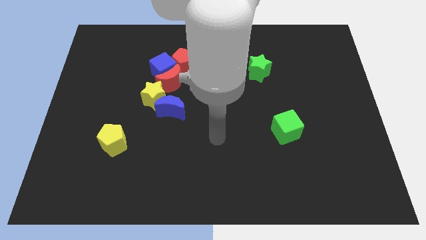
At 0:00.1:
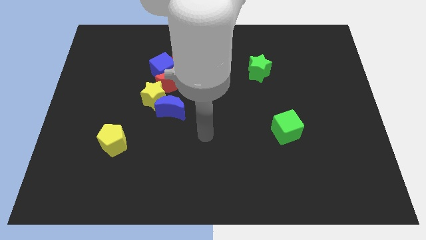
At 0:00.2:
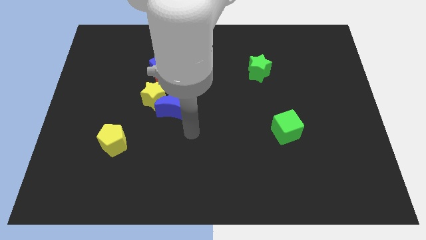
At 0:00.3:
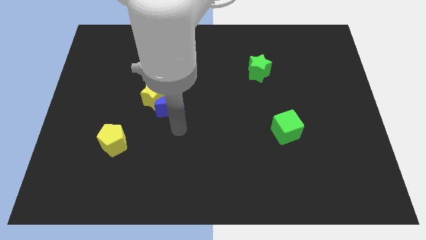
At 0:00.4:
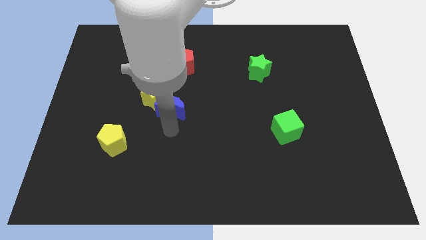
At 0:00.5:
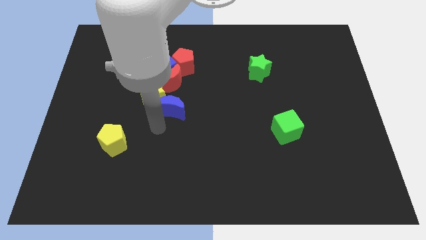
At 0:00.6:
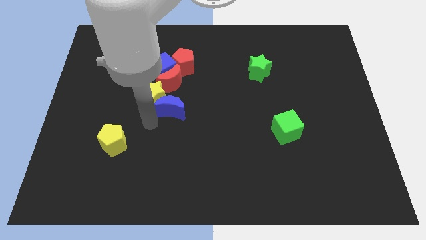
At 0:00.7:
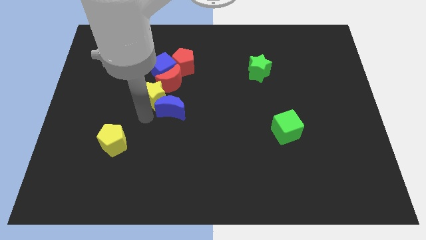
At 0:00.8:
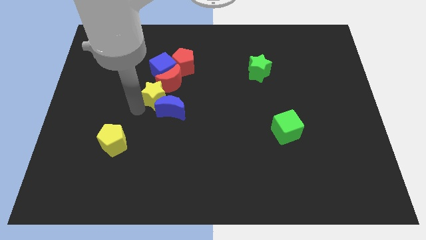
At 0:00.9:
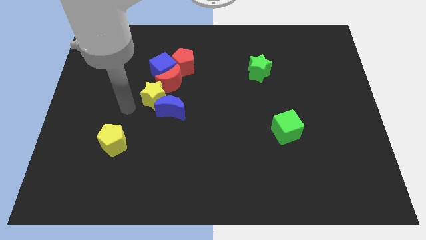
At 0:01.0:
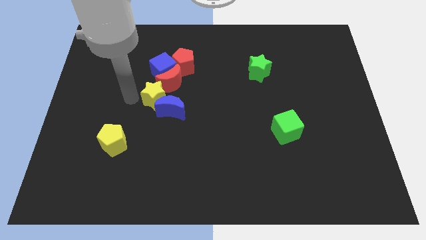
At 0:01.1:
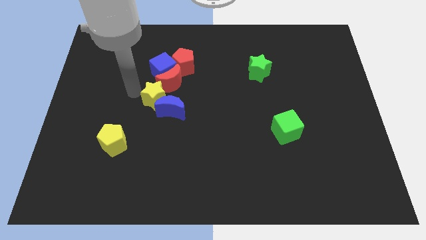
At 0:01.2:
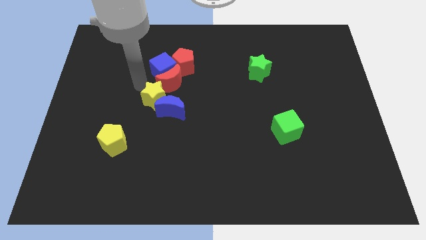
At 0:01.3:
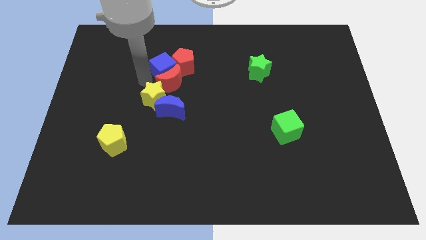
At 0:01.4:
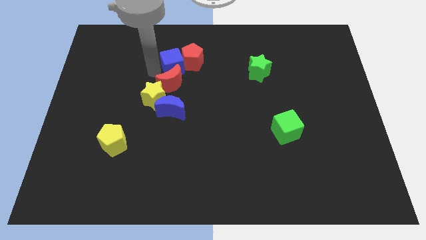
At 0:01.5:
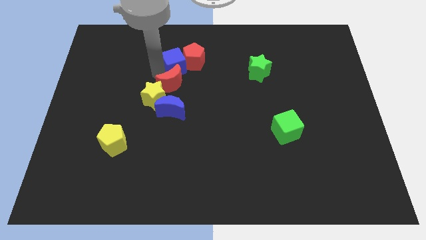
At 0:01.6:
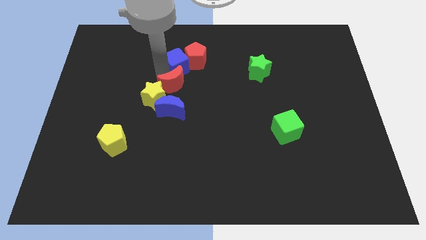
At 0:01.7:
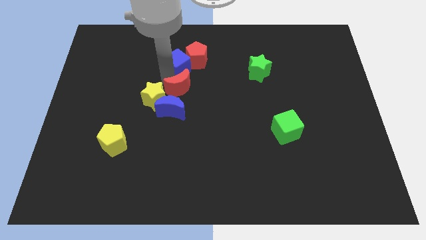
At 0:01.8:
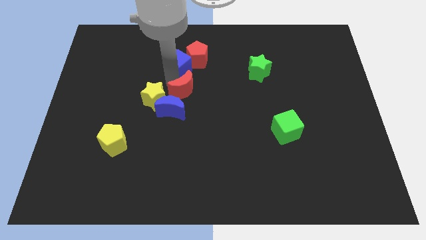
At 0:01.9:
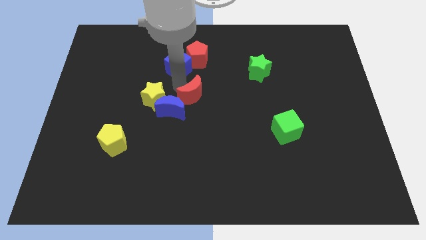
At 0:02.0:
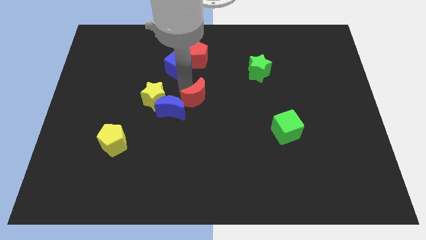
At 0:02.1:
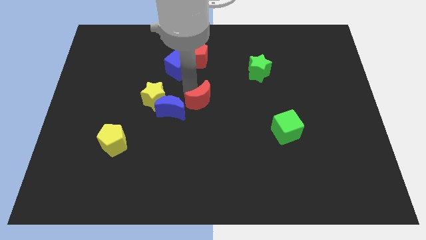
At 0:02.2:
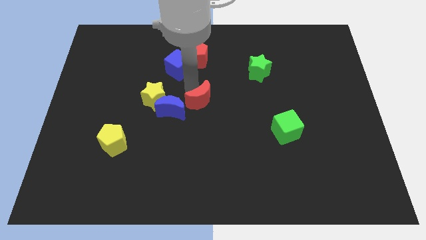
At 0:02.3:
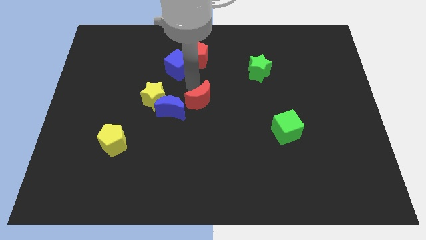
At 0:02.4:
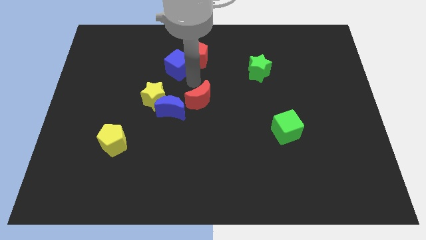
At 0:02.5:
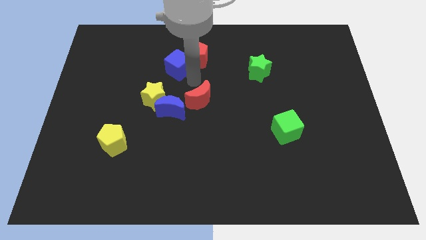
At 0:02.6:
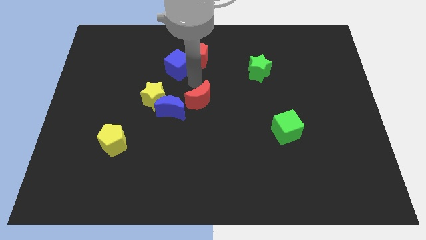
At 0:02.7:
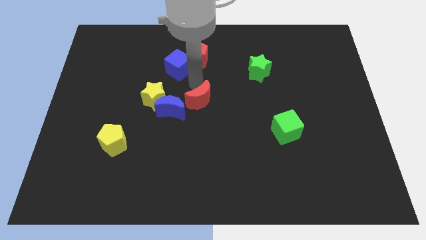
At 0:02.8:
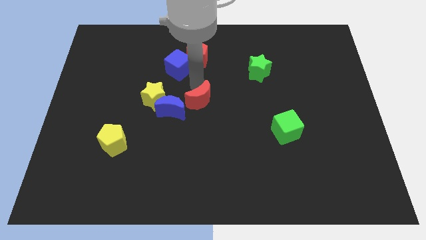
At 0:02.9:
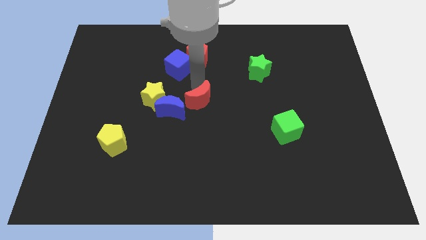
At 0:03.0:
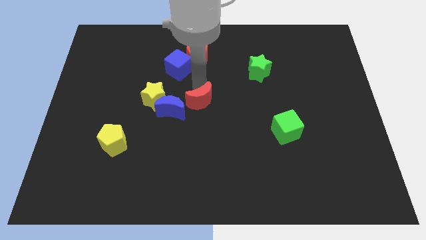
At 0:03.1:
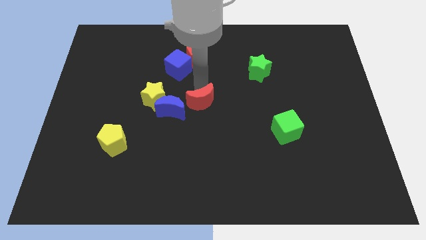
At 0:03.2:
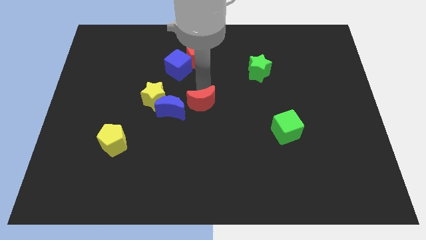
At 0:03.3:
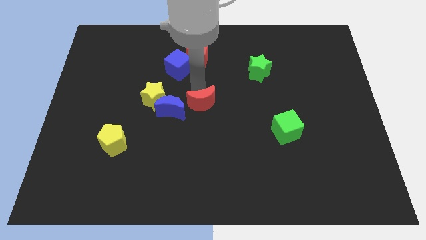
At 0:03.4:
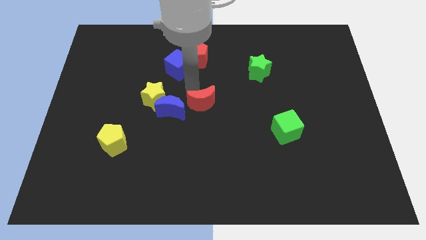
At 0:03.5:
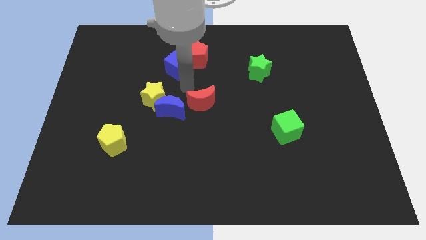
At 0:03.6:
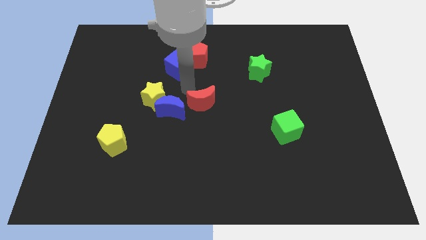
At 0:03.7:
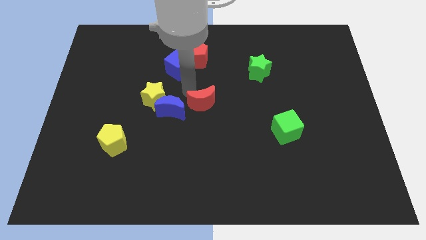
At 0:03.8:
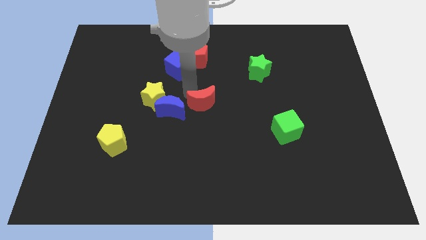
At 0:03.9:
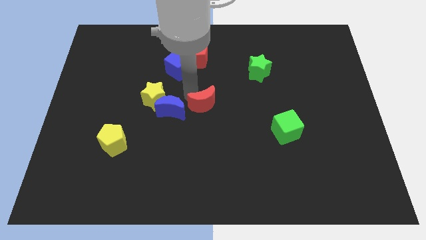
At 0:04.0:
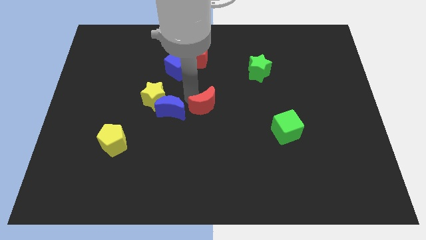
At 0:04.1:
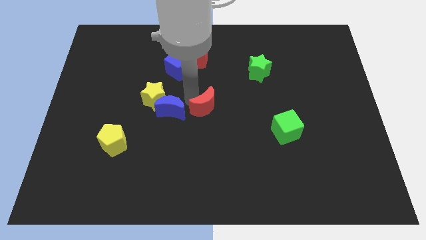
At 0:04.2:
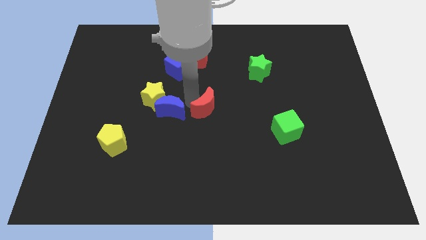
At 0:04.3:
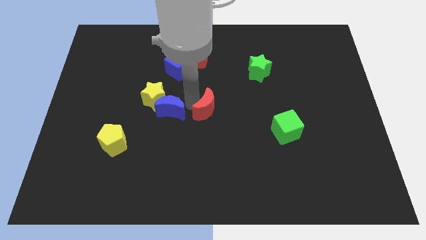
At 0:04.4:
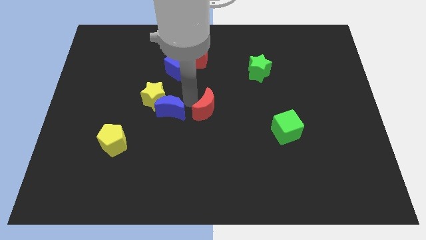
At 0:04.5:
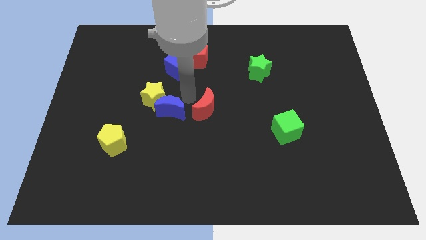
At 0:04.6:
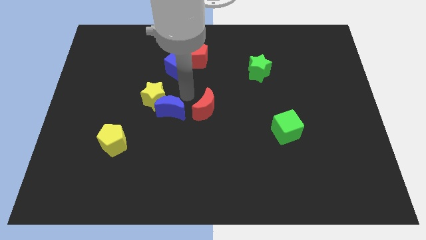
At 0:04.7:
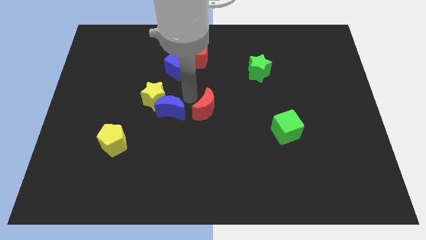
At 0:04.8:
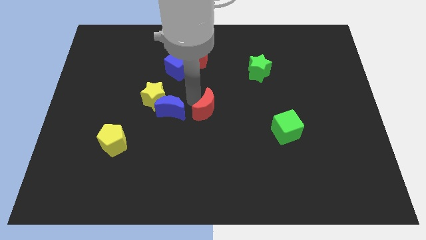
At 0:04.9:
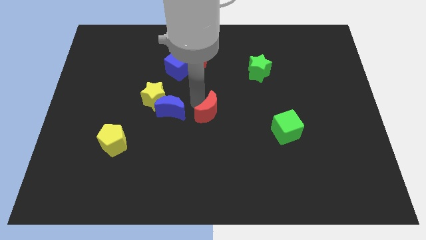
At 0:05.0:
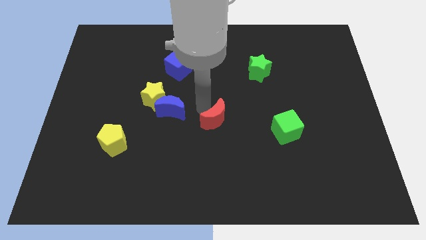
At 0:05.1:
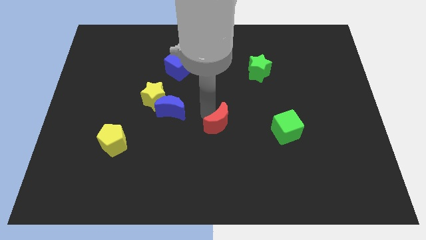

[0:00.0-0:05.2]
put the red moon just left of the green cube

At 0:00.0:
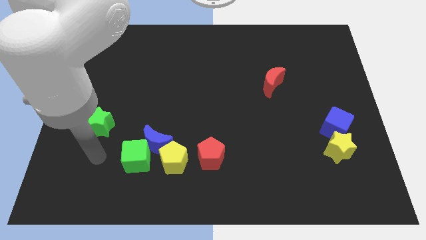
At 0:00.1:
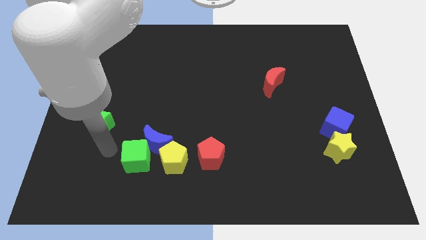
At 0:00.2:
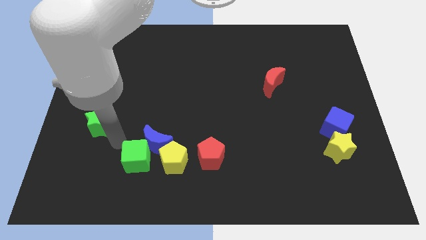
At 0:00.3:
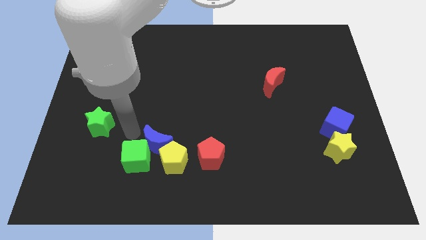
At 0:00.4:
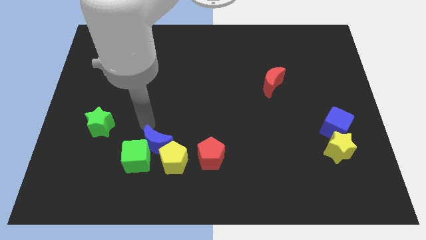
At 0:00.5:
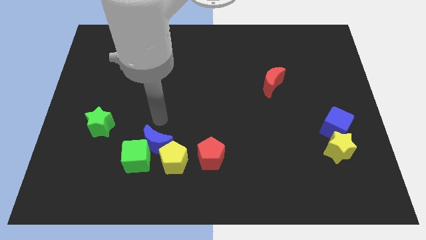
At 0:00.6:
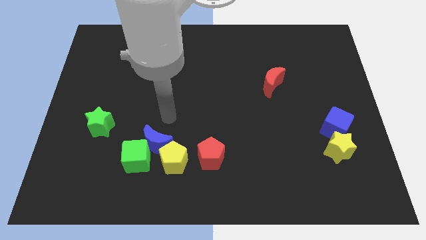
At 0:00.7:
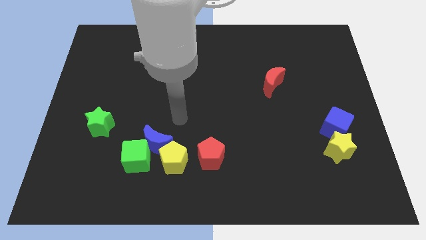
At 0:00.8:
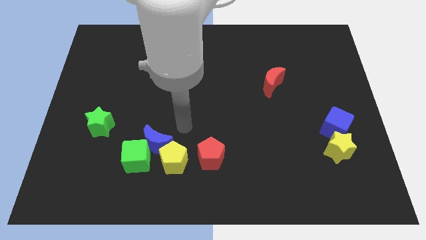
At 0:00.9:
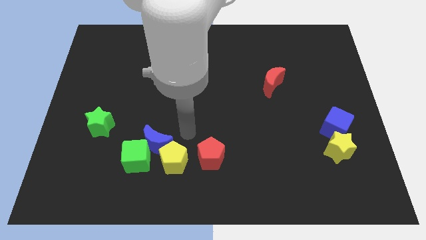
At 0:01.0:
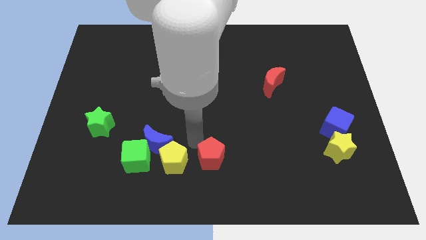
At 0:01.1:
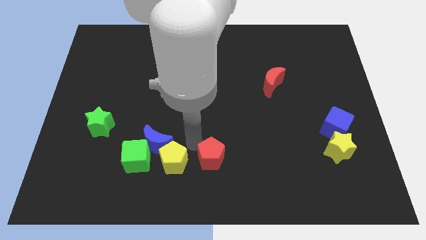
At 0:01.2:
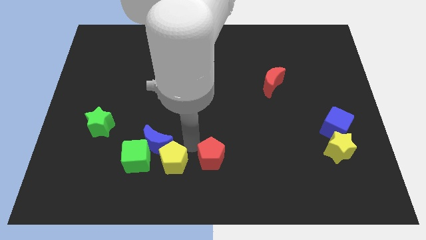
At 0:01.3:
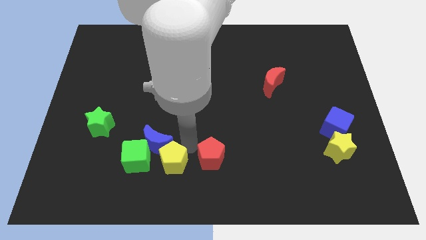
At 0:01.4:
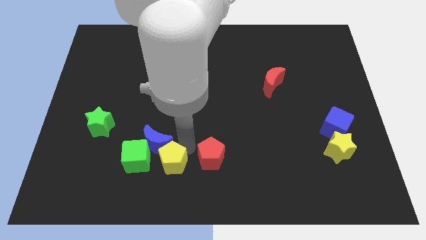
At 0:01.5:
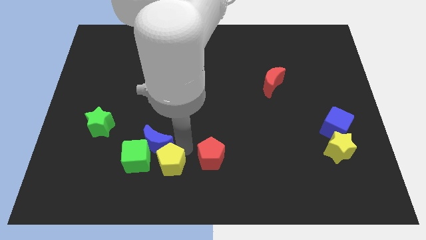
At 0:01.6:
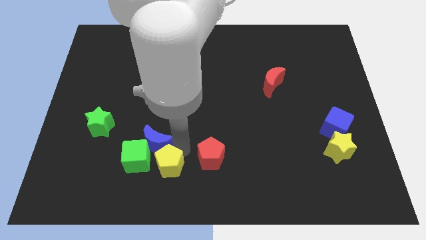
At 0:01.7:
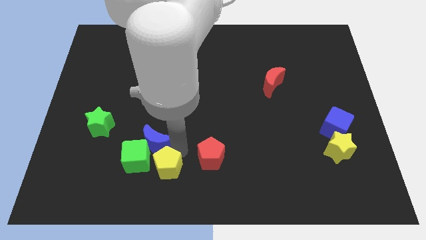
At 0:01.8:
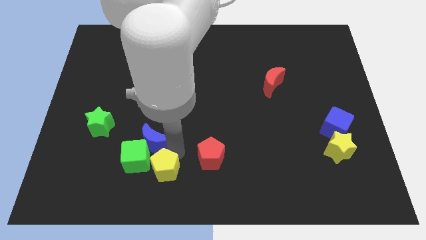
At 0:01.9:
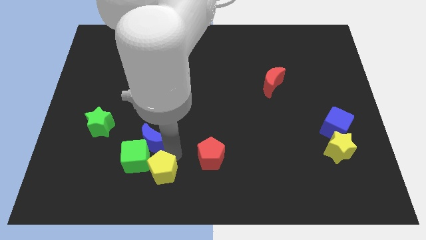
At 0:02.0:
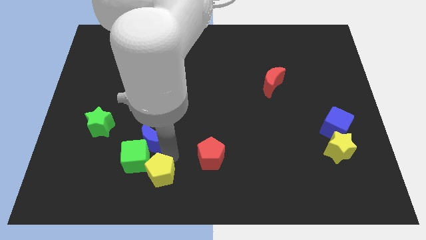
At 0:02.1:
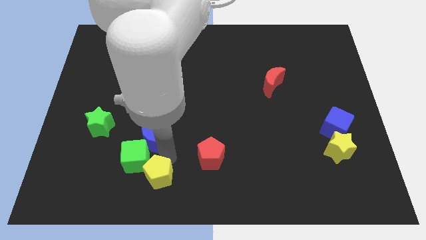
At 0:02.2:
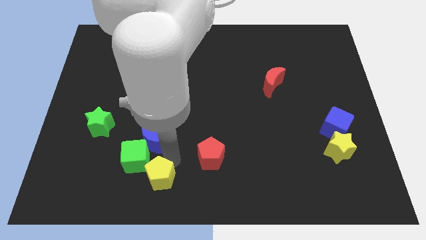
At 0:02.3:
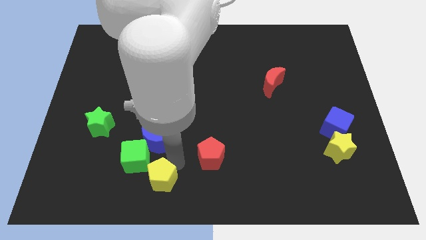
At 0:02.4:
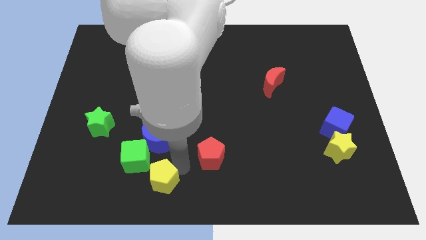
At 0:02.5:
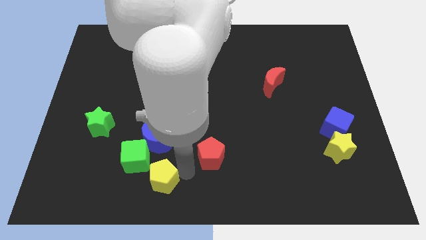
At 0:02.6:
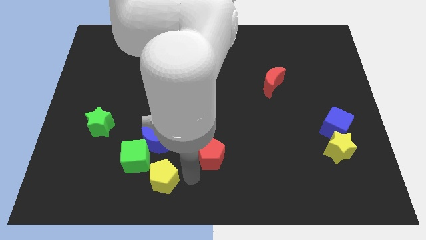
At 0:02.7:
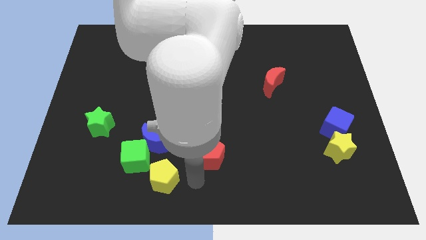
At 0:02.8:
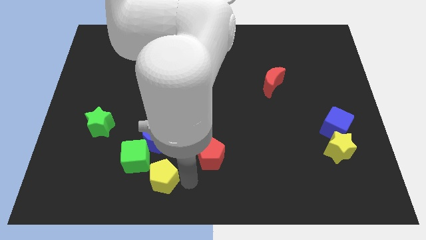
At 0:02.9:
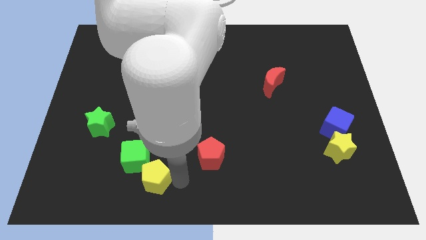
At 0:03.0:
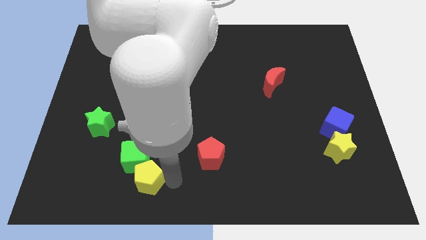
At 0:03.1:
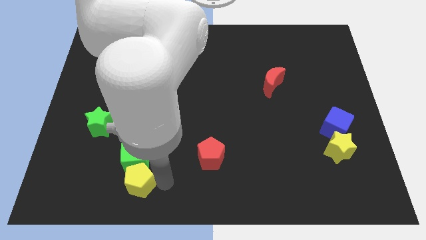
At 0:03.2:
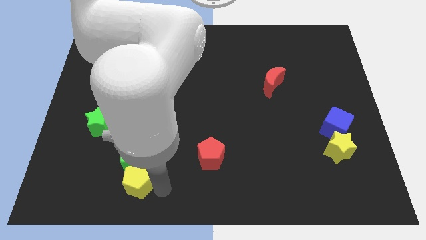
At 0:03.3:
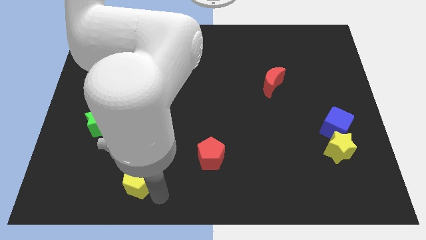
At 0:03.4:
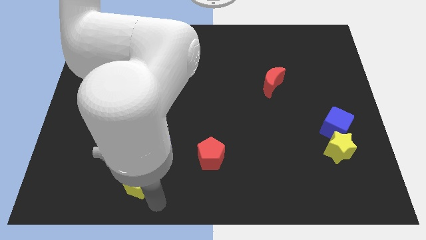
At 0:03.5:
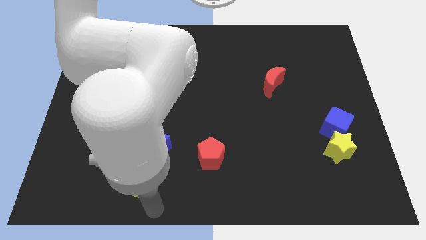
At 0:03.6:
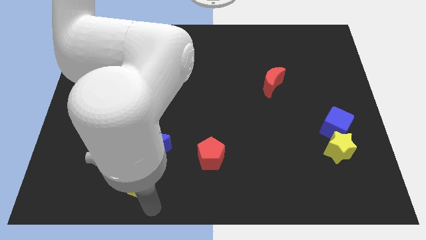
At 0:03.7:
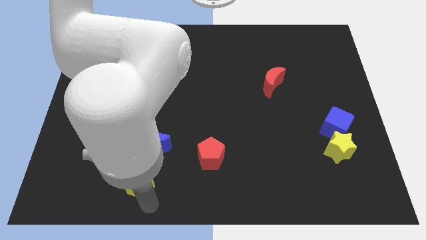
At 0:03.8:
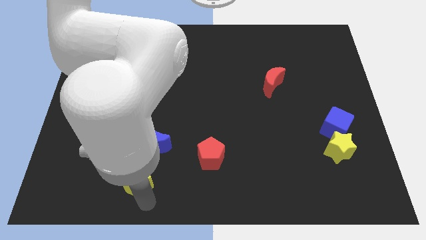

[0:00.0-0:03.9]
move the yellow pentagon diagonally down and to the left of the blue moon
